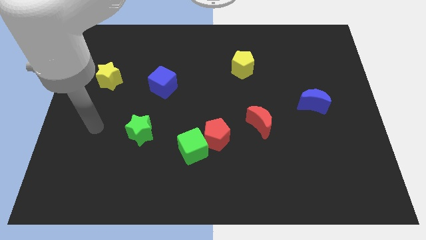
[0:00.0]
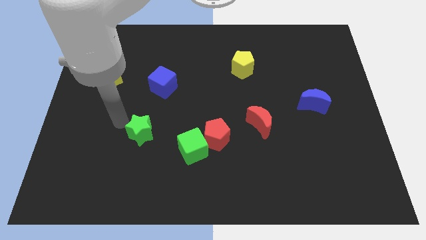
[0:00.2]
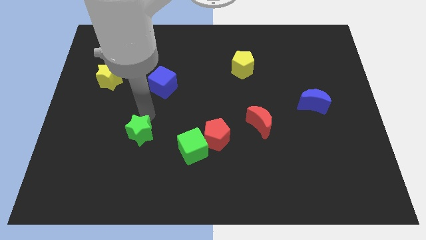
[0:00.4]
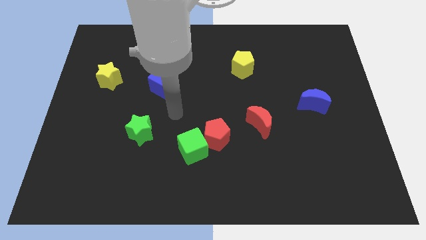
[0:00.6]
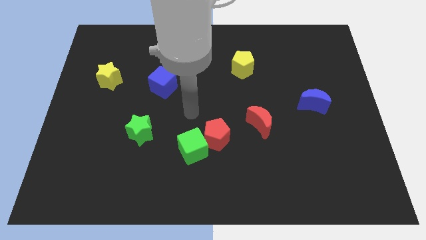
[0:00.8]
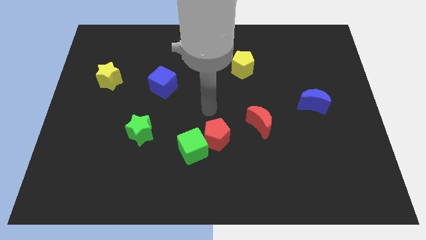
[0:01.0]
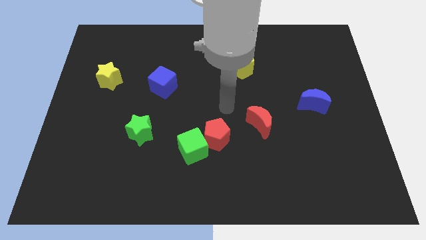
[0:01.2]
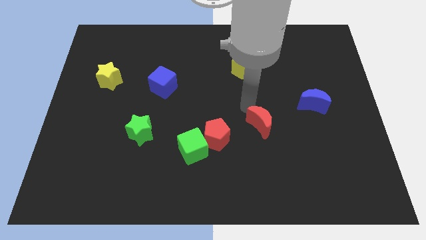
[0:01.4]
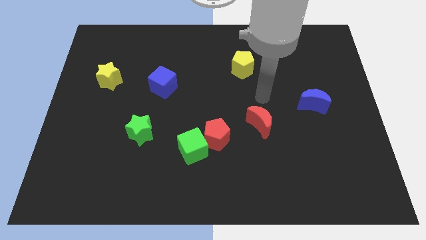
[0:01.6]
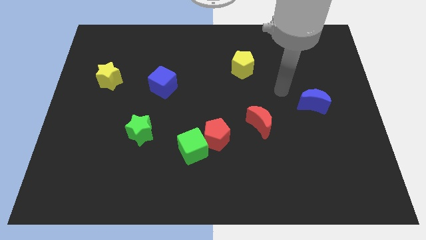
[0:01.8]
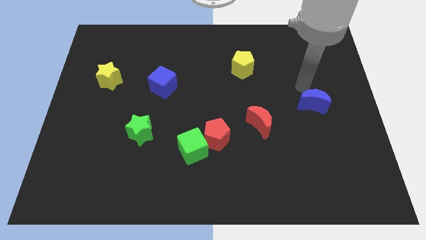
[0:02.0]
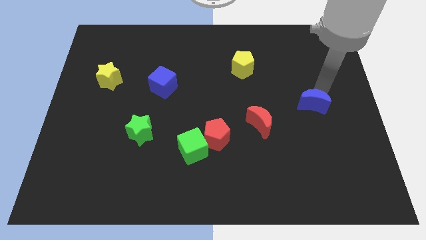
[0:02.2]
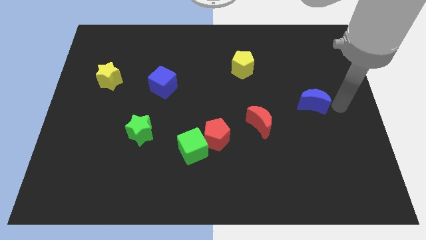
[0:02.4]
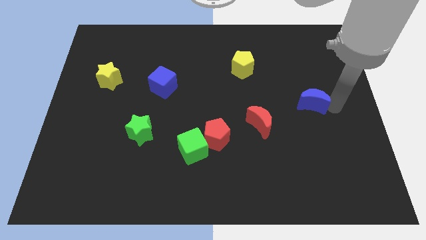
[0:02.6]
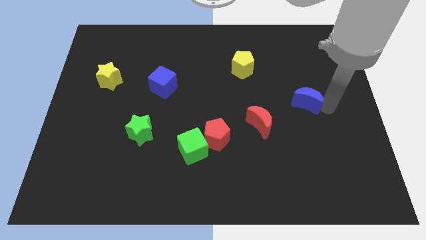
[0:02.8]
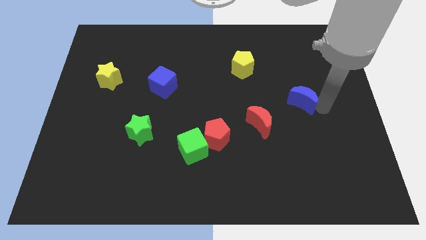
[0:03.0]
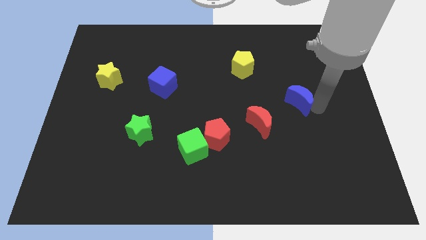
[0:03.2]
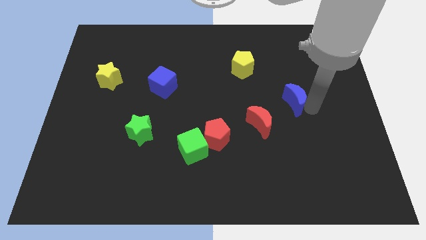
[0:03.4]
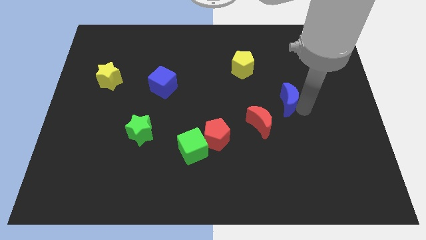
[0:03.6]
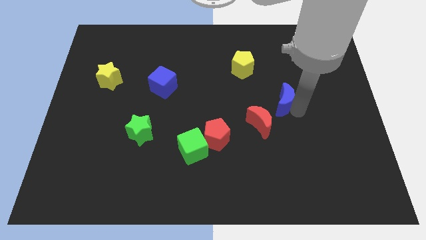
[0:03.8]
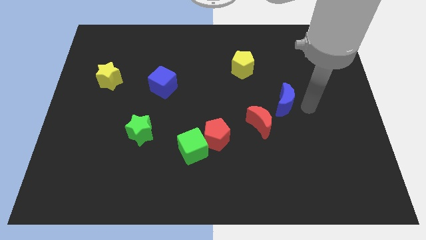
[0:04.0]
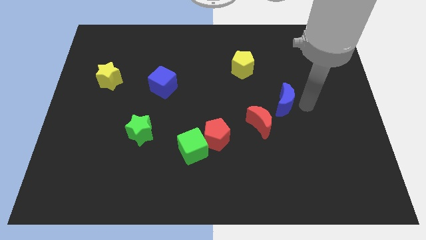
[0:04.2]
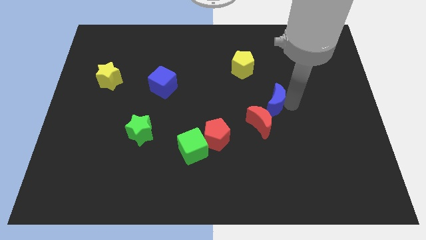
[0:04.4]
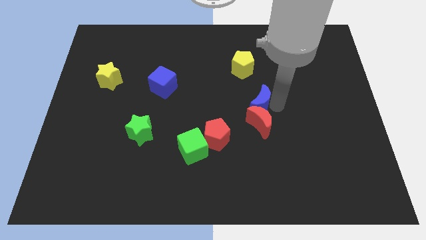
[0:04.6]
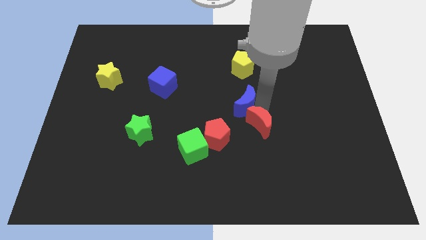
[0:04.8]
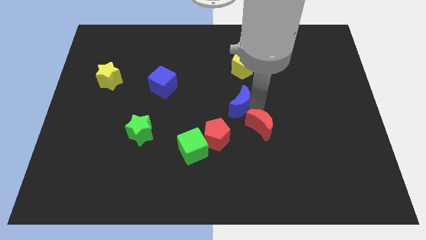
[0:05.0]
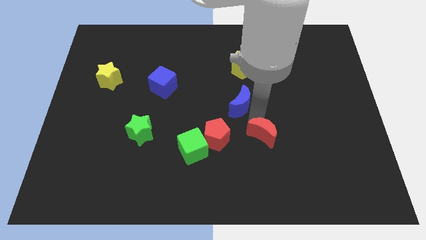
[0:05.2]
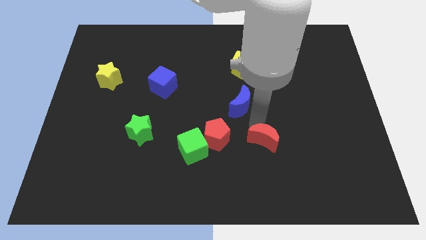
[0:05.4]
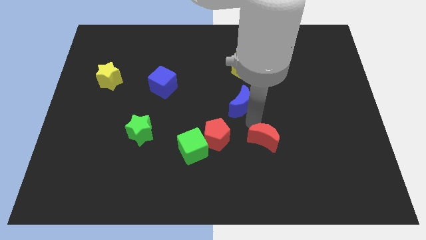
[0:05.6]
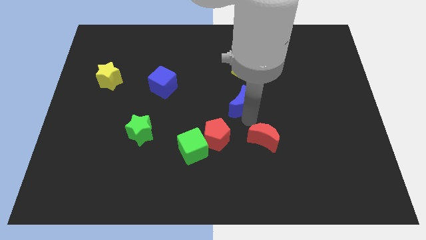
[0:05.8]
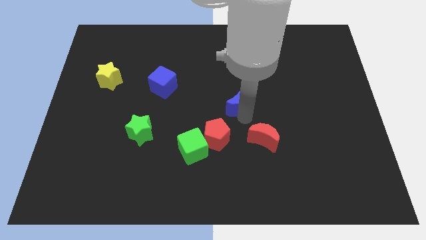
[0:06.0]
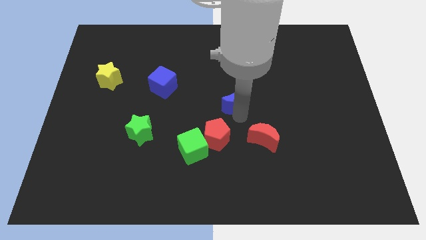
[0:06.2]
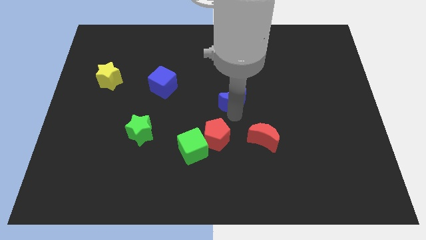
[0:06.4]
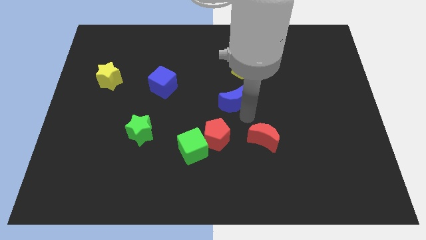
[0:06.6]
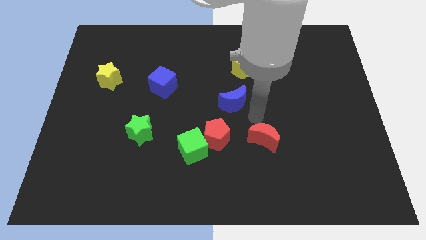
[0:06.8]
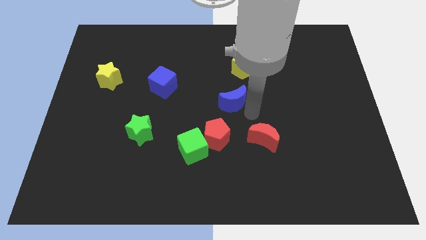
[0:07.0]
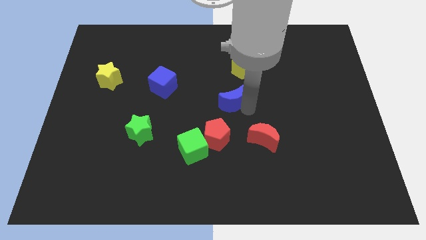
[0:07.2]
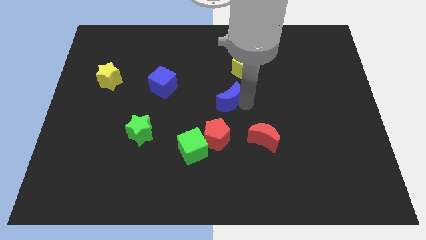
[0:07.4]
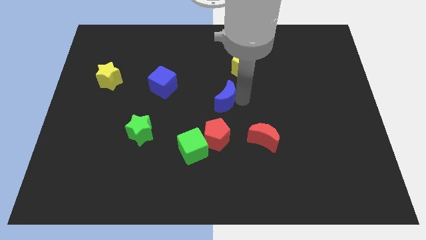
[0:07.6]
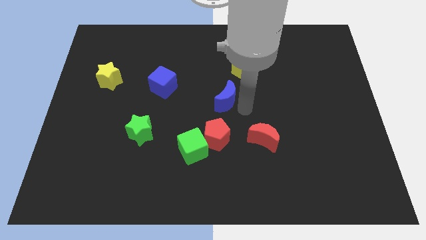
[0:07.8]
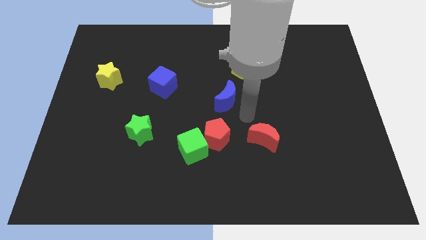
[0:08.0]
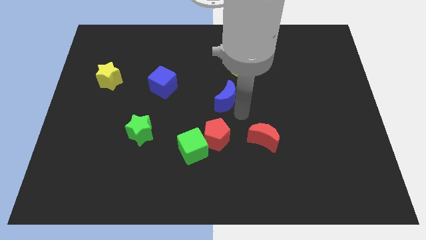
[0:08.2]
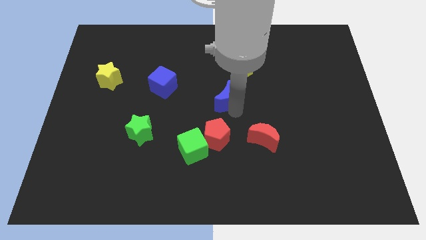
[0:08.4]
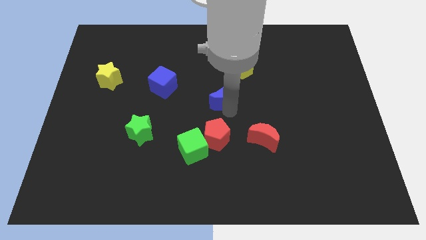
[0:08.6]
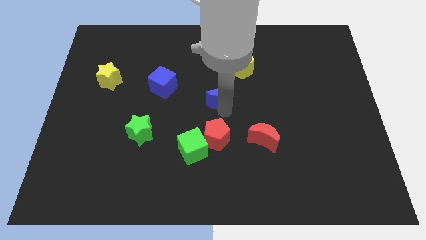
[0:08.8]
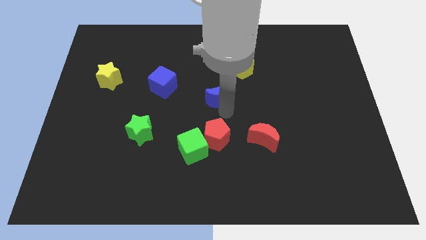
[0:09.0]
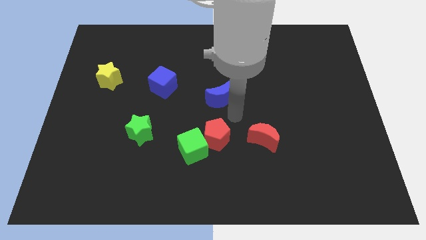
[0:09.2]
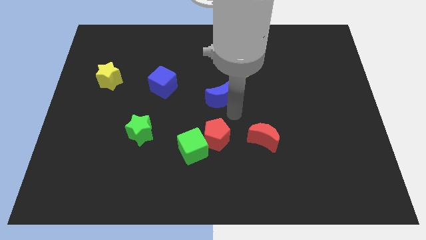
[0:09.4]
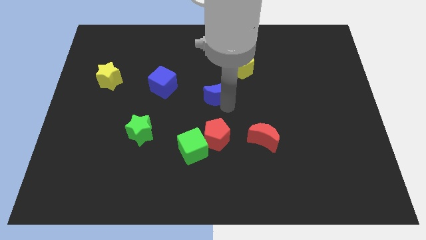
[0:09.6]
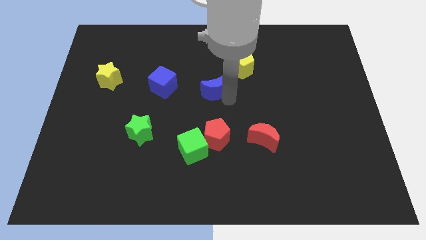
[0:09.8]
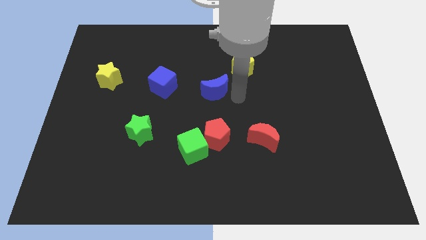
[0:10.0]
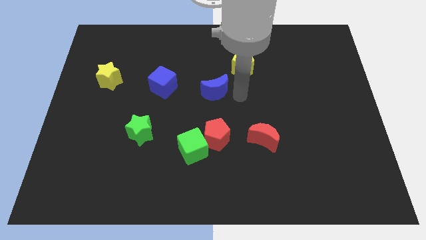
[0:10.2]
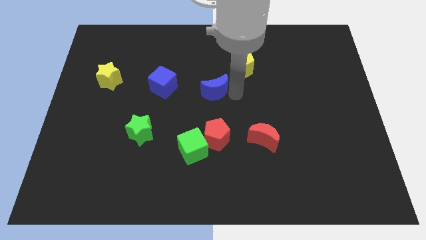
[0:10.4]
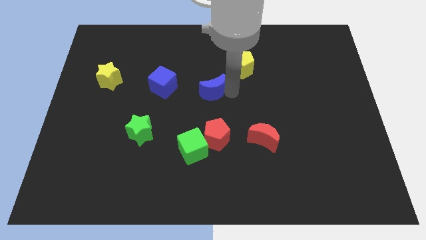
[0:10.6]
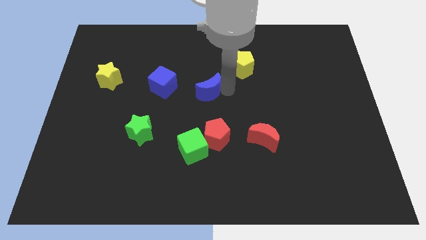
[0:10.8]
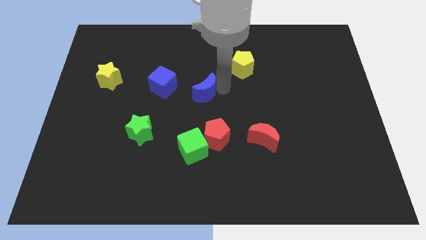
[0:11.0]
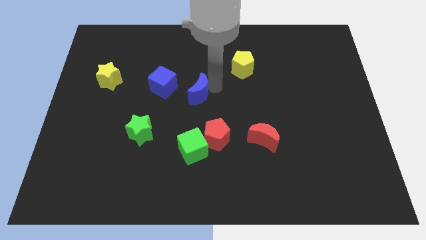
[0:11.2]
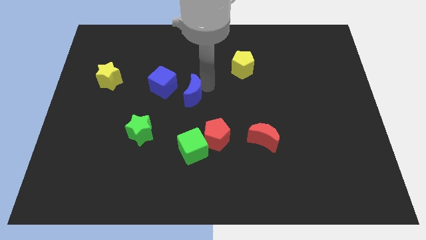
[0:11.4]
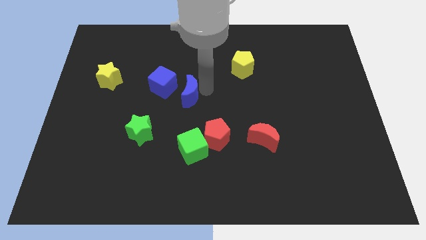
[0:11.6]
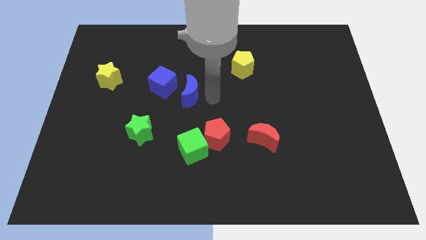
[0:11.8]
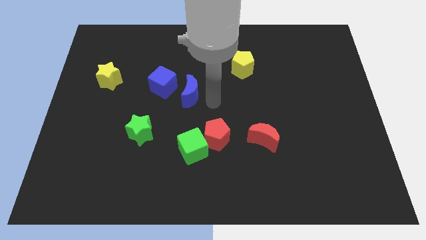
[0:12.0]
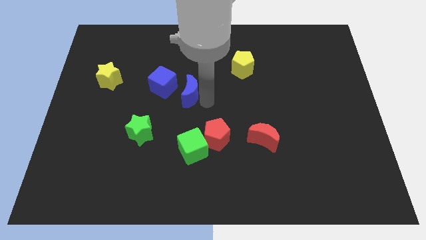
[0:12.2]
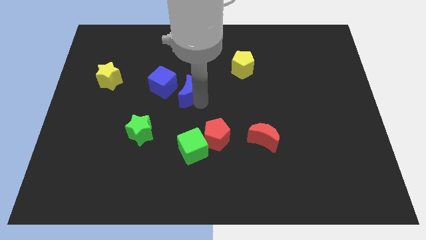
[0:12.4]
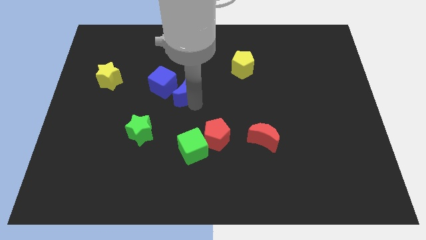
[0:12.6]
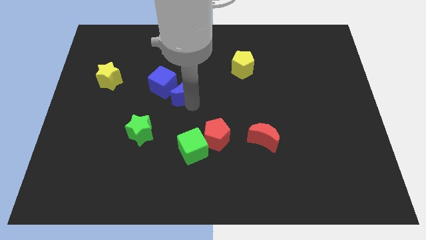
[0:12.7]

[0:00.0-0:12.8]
put the blue moon towards the blue cube

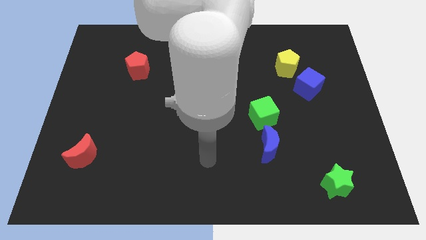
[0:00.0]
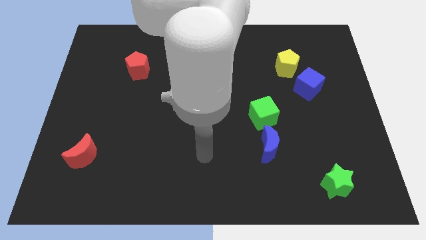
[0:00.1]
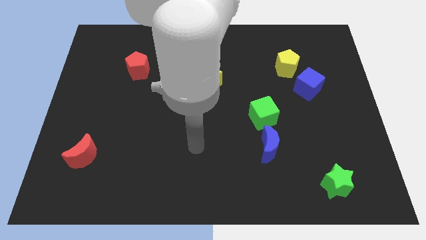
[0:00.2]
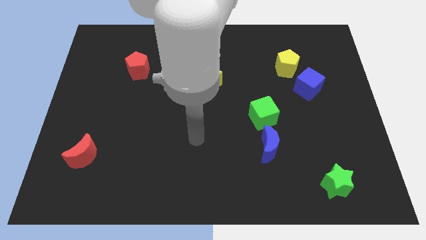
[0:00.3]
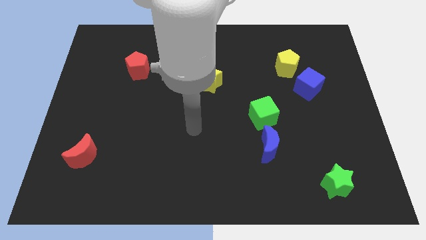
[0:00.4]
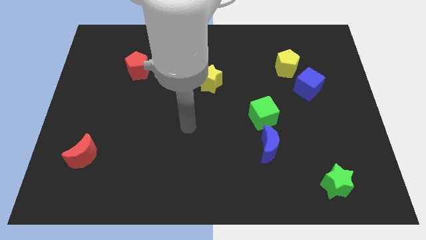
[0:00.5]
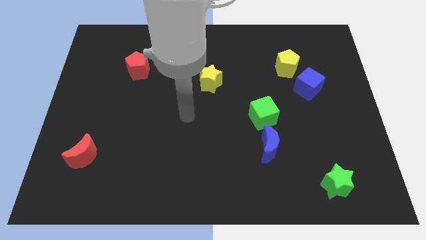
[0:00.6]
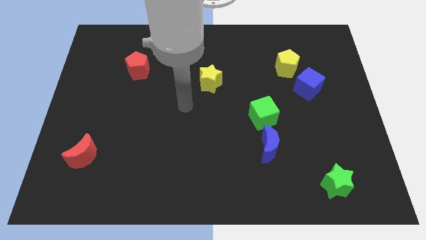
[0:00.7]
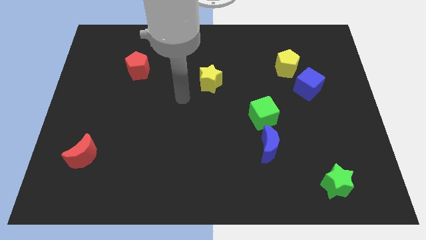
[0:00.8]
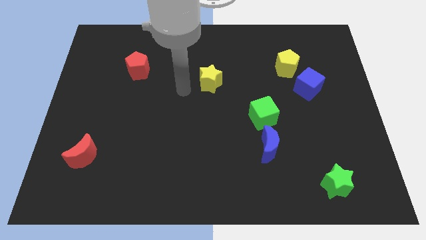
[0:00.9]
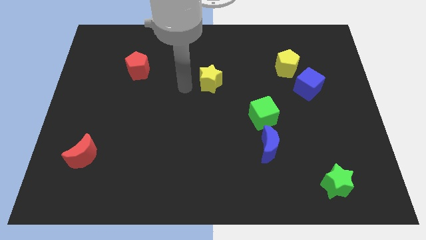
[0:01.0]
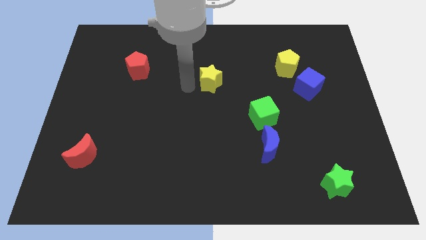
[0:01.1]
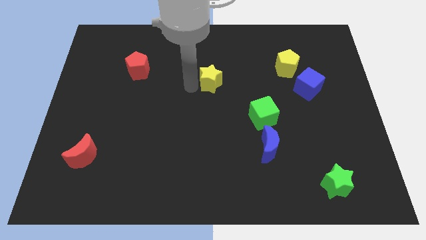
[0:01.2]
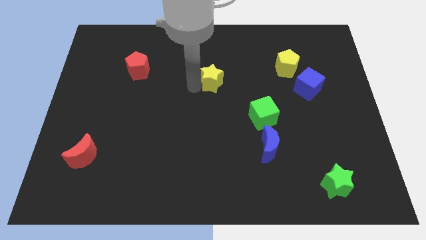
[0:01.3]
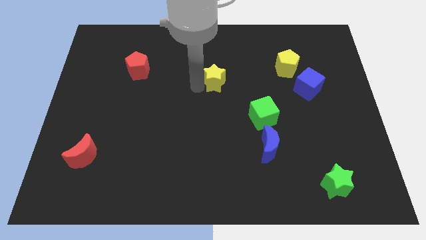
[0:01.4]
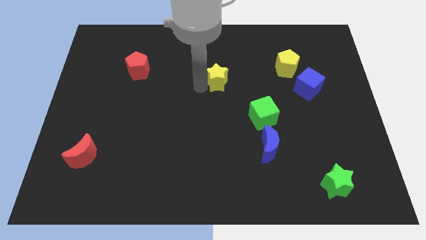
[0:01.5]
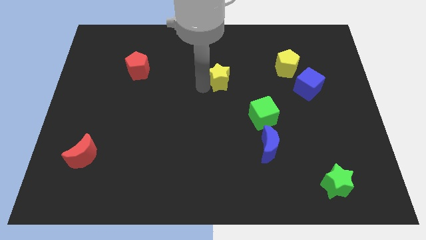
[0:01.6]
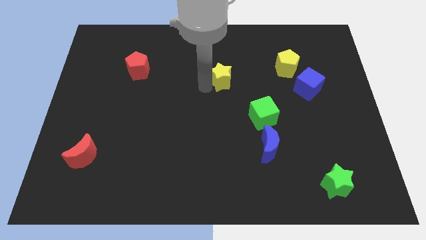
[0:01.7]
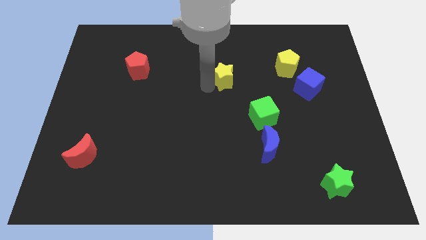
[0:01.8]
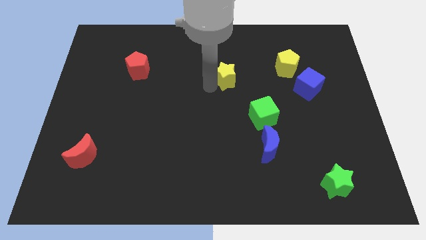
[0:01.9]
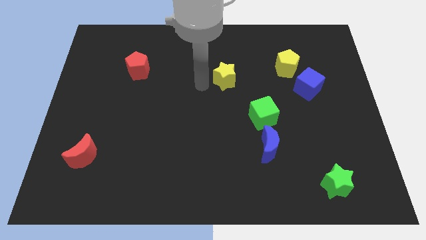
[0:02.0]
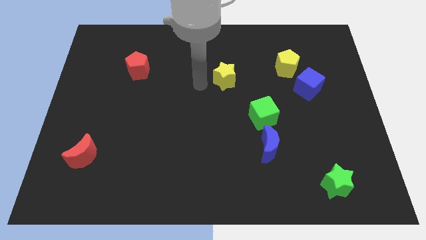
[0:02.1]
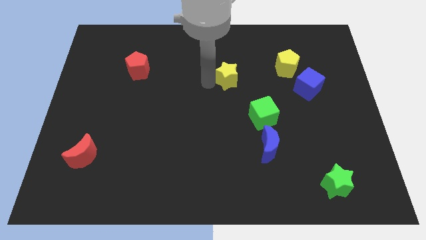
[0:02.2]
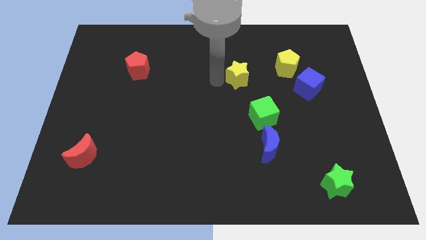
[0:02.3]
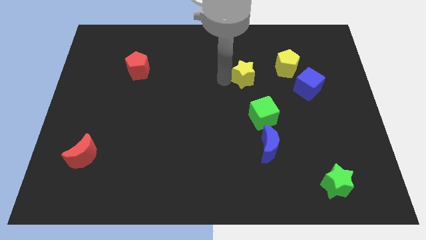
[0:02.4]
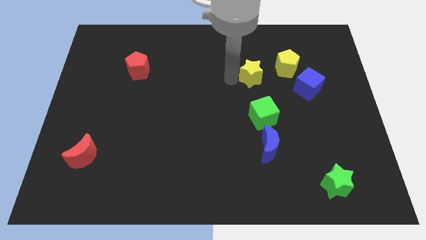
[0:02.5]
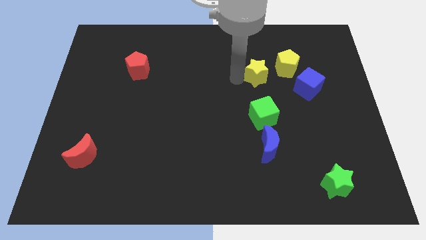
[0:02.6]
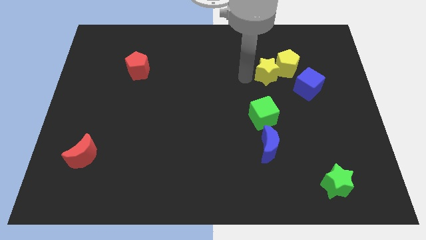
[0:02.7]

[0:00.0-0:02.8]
put the yellow star next to the yellow pentagon
